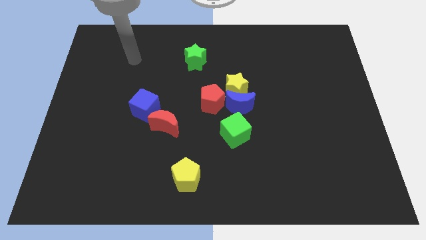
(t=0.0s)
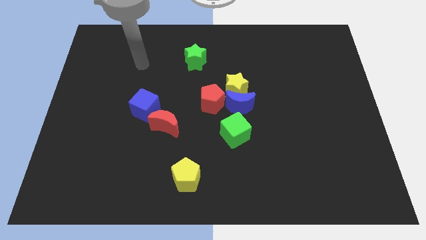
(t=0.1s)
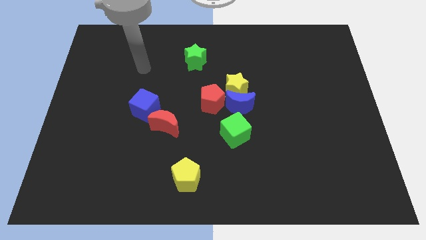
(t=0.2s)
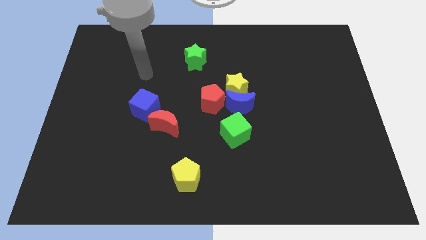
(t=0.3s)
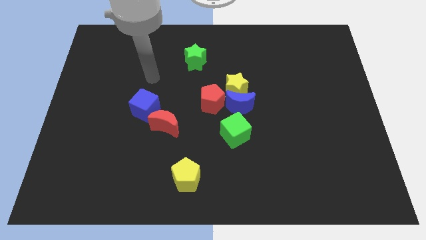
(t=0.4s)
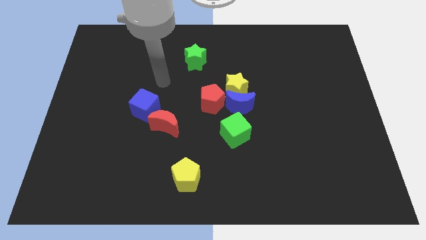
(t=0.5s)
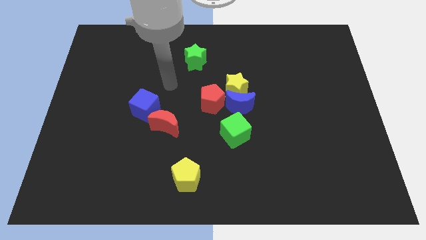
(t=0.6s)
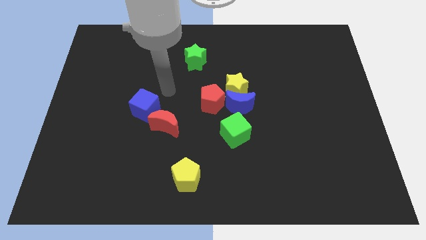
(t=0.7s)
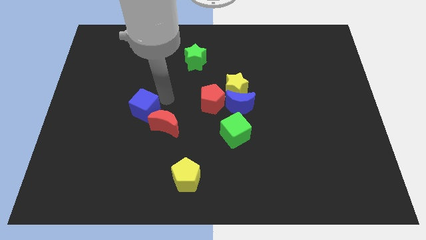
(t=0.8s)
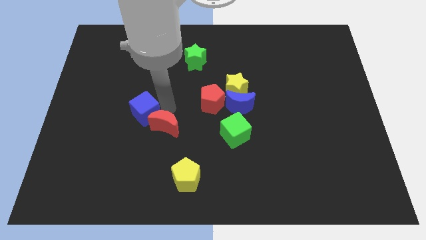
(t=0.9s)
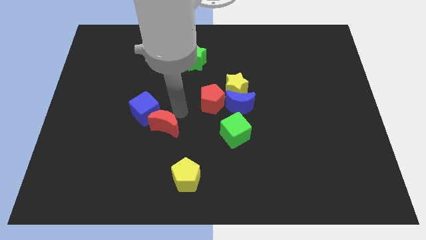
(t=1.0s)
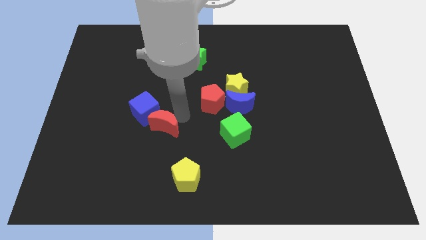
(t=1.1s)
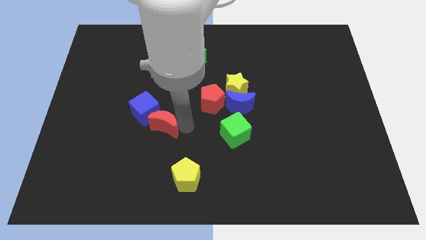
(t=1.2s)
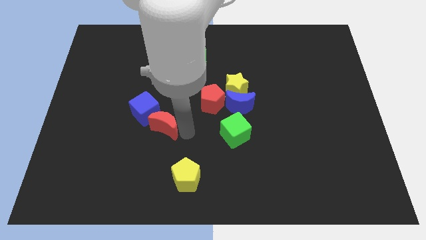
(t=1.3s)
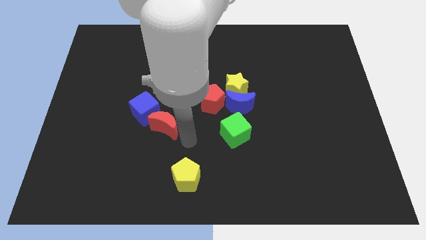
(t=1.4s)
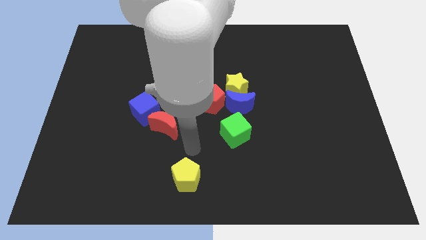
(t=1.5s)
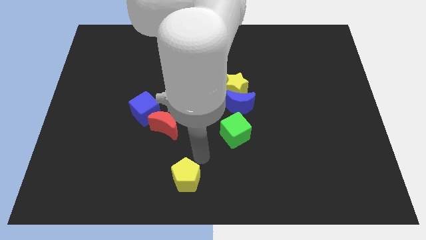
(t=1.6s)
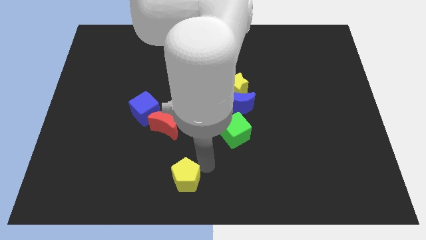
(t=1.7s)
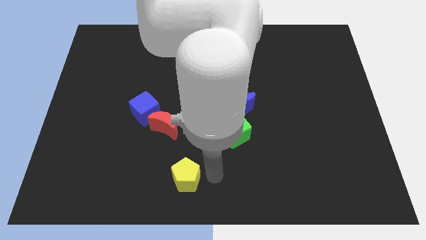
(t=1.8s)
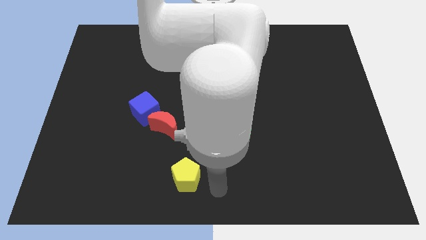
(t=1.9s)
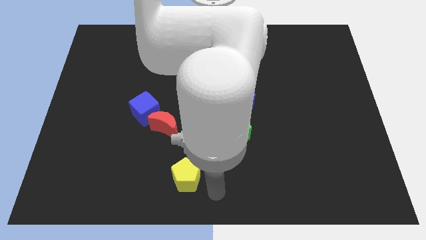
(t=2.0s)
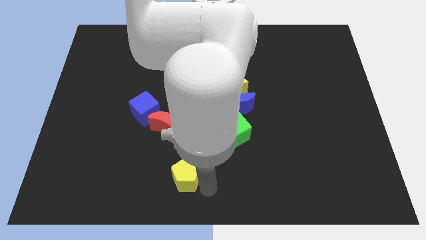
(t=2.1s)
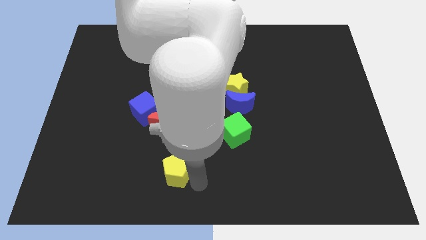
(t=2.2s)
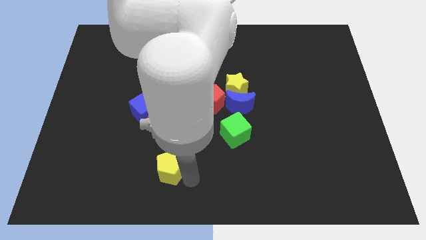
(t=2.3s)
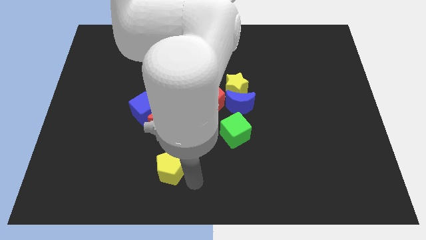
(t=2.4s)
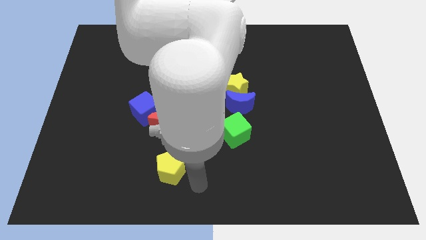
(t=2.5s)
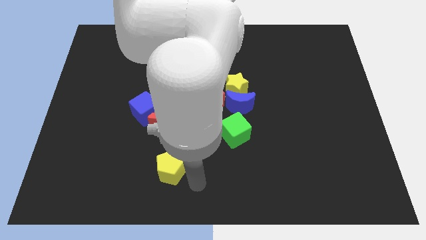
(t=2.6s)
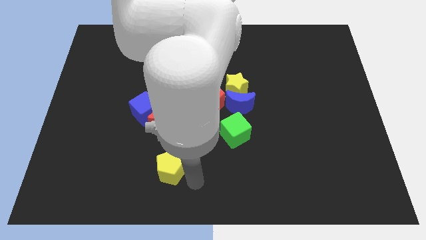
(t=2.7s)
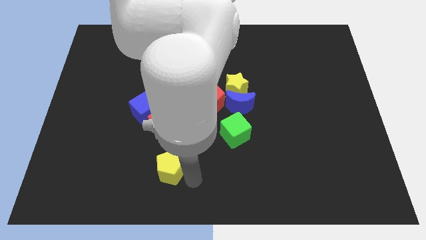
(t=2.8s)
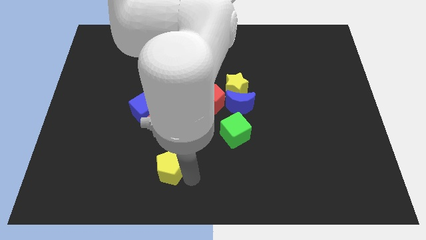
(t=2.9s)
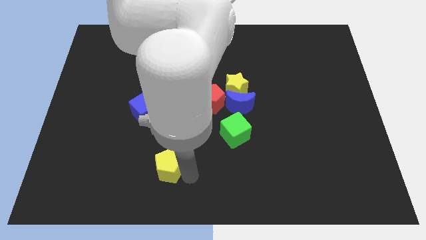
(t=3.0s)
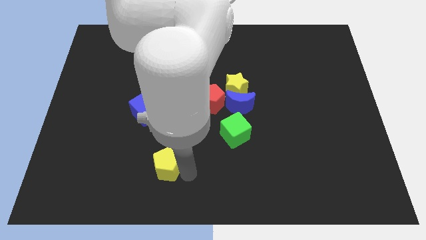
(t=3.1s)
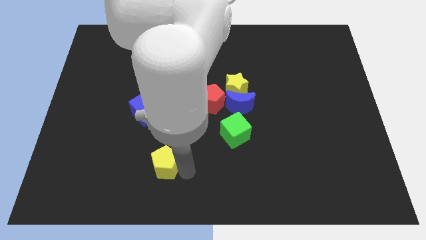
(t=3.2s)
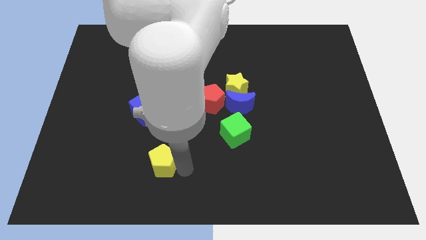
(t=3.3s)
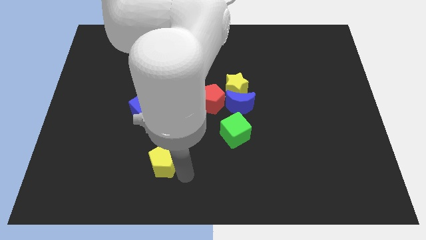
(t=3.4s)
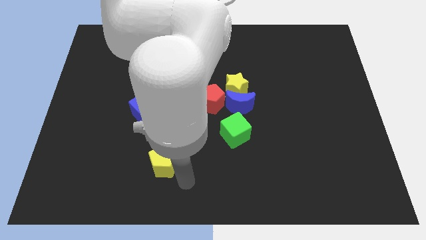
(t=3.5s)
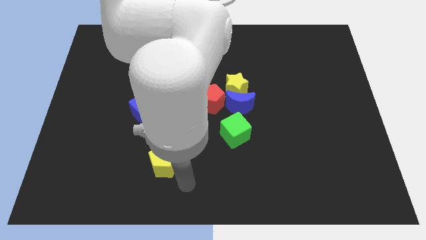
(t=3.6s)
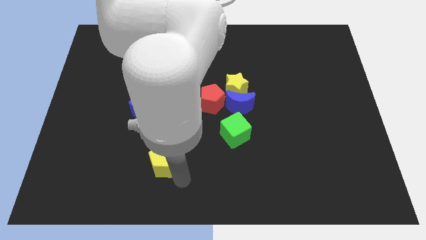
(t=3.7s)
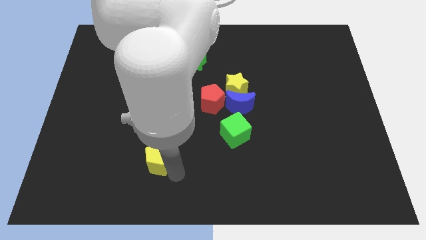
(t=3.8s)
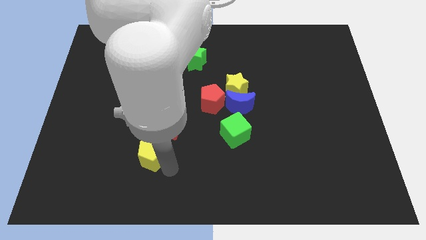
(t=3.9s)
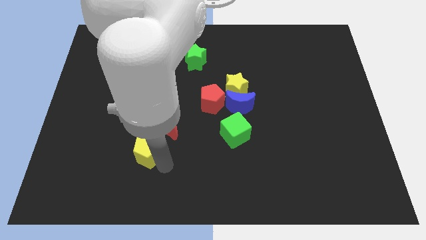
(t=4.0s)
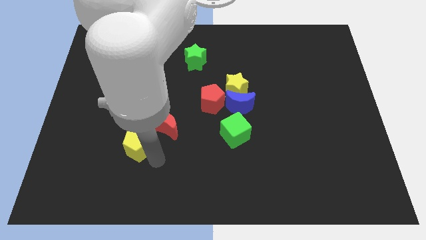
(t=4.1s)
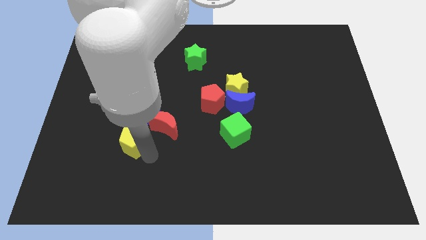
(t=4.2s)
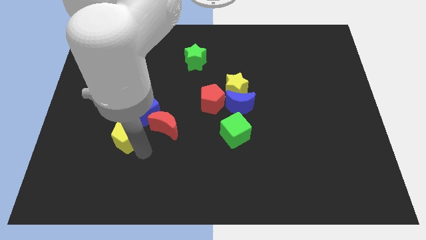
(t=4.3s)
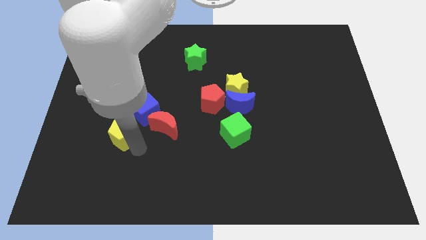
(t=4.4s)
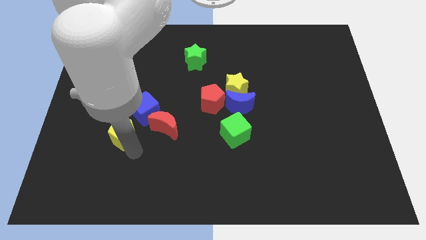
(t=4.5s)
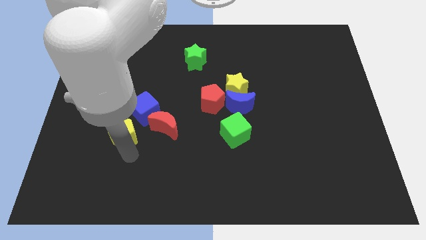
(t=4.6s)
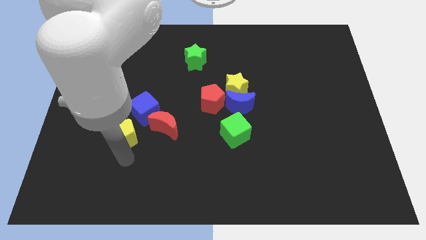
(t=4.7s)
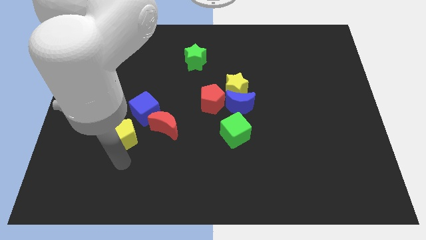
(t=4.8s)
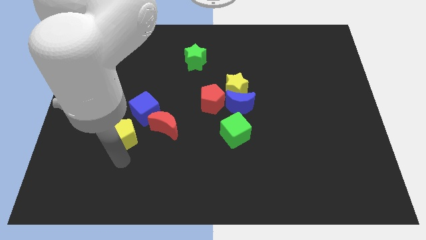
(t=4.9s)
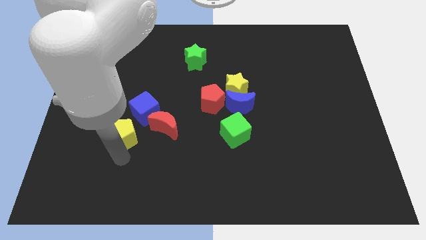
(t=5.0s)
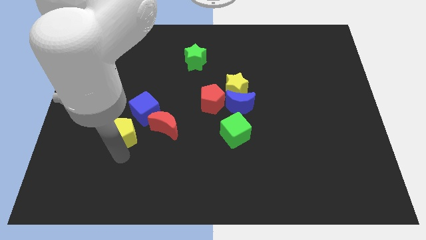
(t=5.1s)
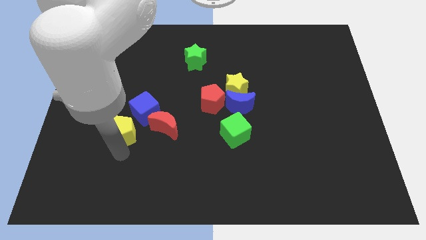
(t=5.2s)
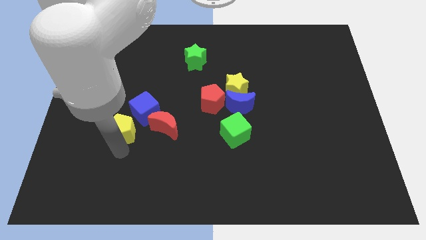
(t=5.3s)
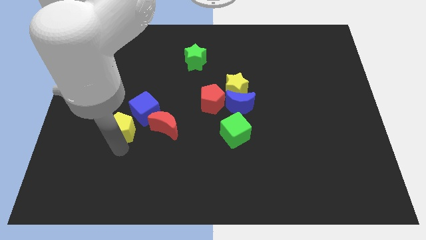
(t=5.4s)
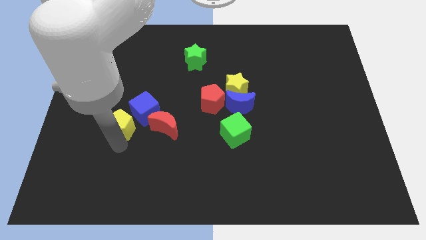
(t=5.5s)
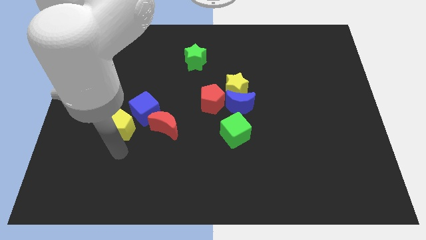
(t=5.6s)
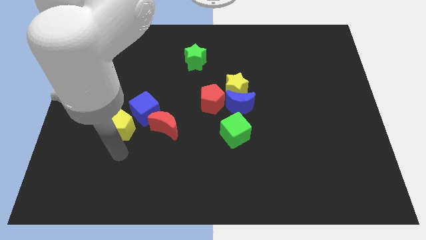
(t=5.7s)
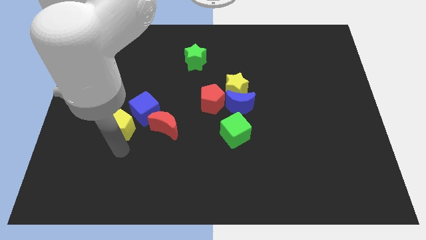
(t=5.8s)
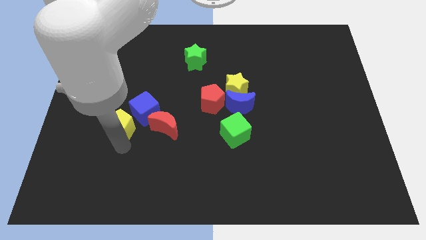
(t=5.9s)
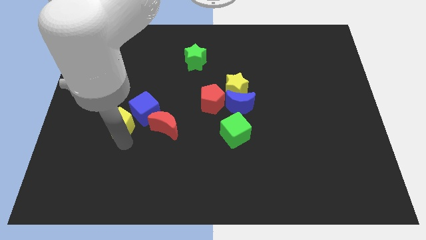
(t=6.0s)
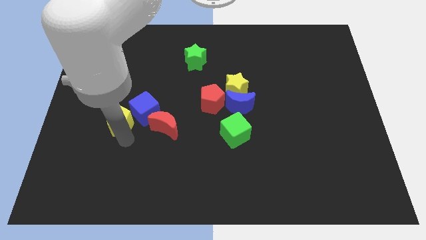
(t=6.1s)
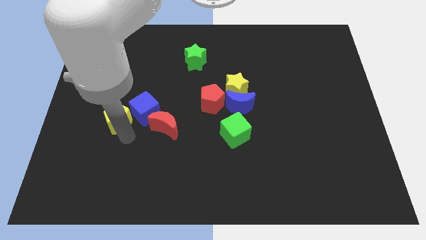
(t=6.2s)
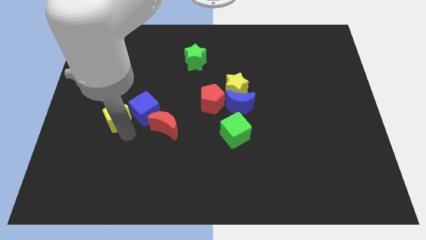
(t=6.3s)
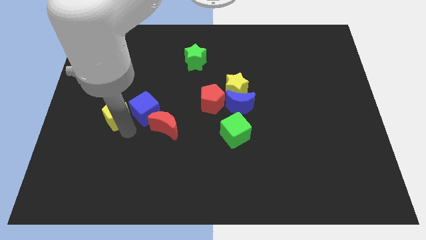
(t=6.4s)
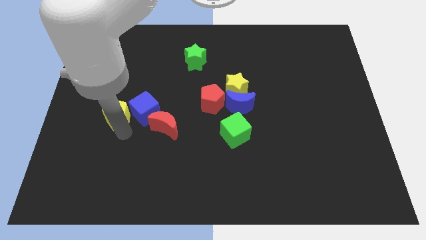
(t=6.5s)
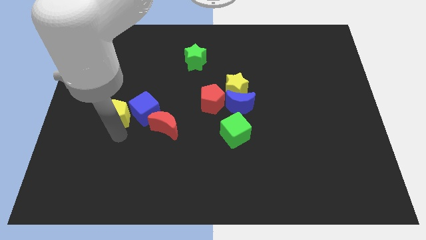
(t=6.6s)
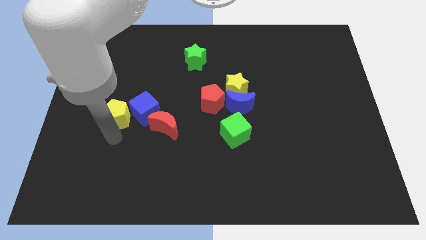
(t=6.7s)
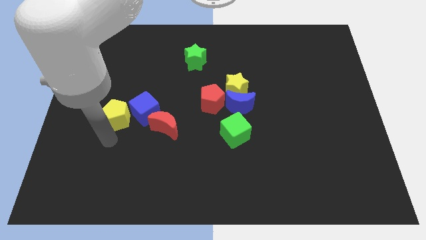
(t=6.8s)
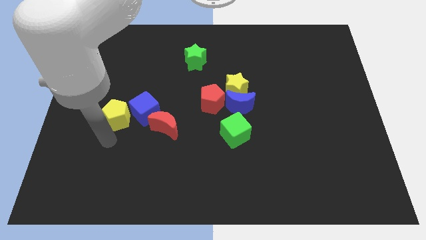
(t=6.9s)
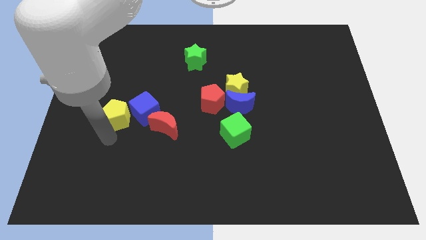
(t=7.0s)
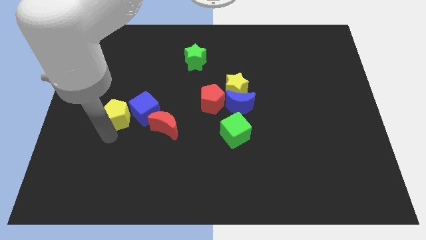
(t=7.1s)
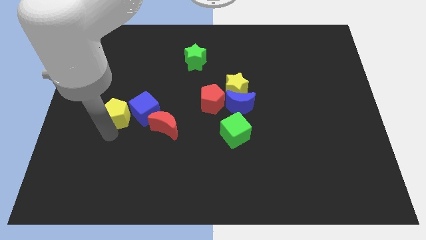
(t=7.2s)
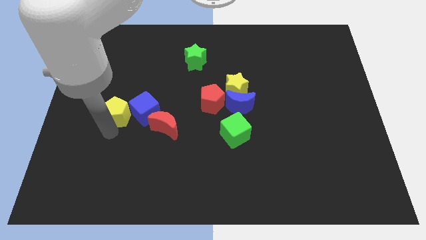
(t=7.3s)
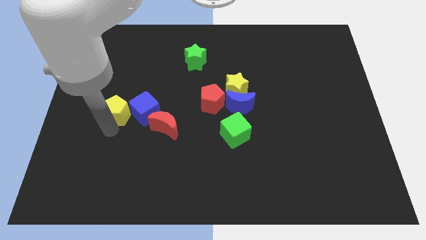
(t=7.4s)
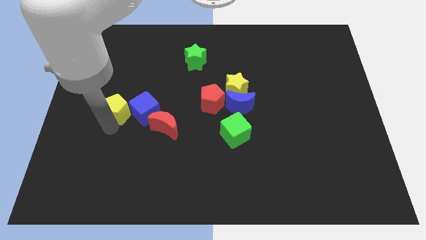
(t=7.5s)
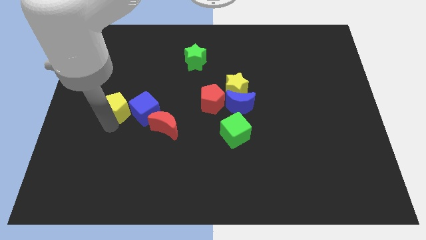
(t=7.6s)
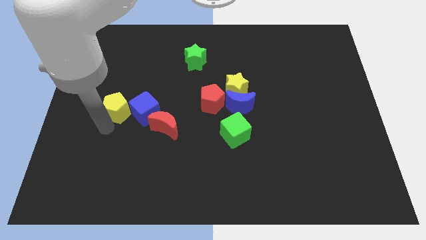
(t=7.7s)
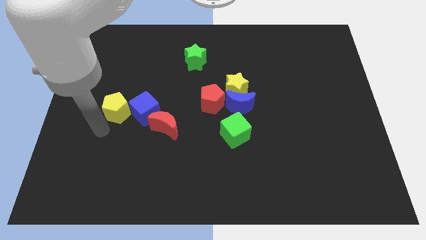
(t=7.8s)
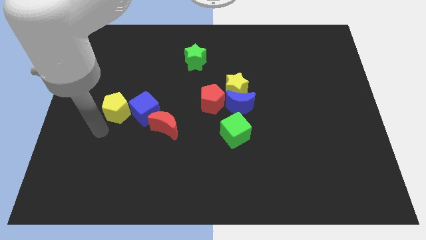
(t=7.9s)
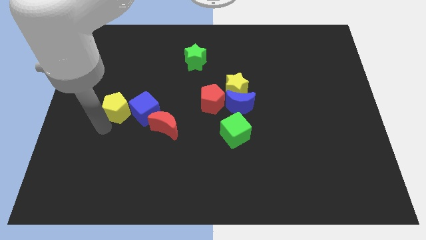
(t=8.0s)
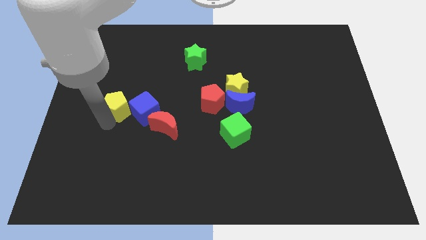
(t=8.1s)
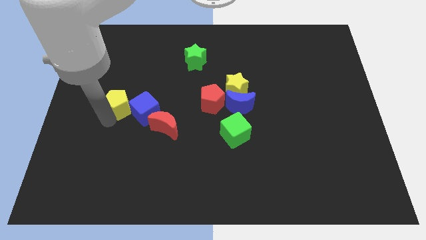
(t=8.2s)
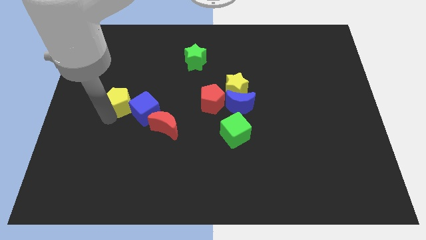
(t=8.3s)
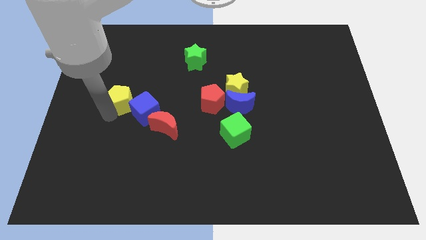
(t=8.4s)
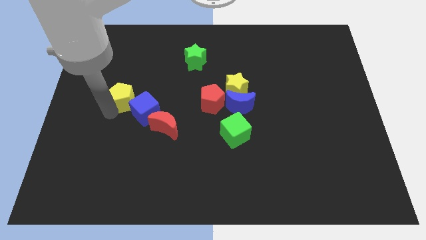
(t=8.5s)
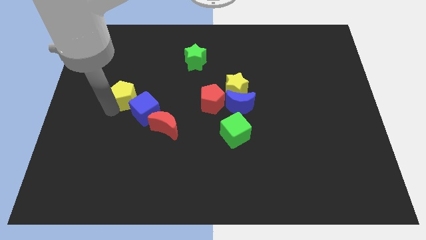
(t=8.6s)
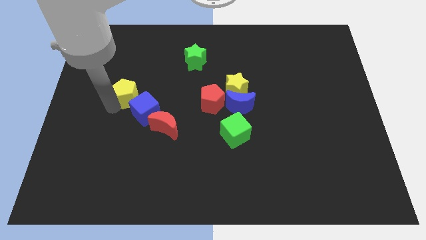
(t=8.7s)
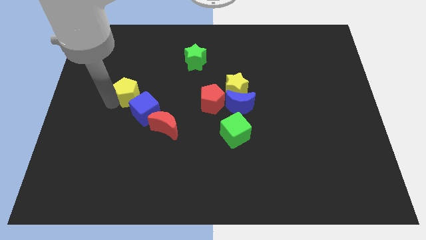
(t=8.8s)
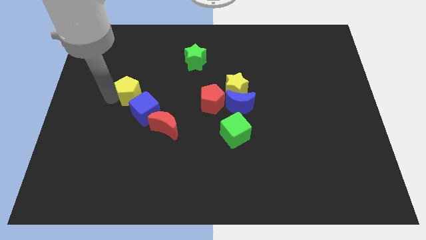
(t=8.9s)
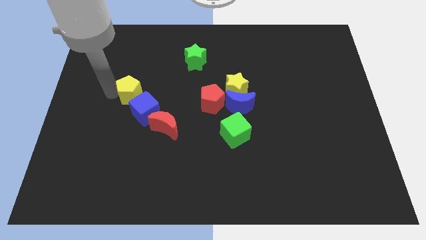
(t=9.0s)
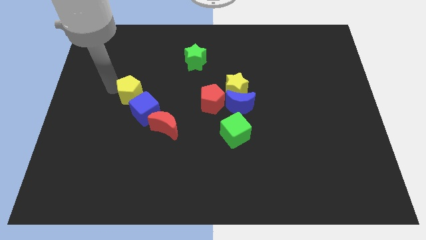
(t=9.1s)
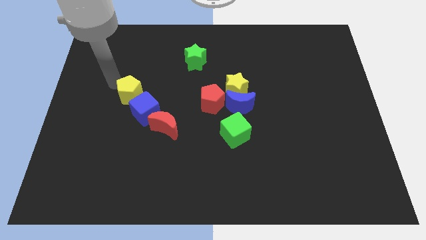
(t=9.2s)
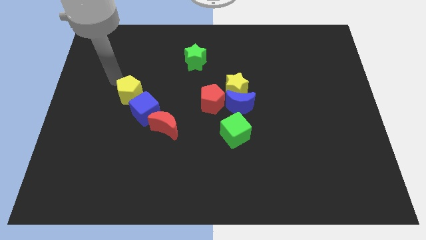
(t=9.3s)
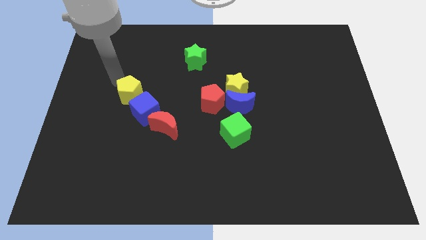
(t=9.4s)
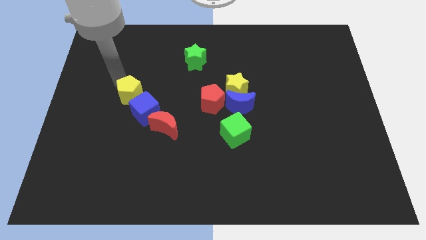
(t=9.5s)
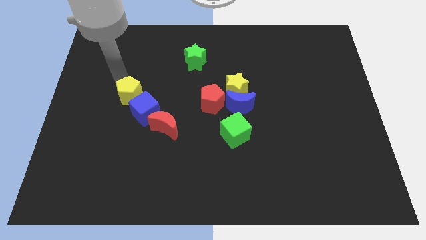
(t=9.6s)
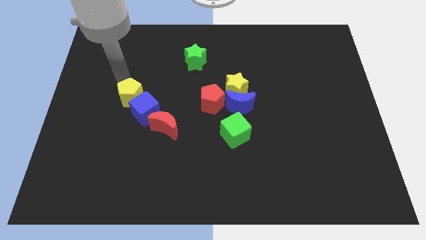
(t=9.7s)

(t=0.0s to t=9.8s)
slide the yellow pentagon diagonally up and to the left of the red moon
